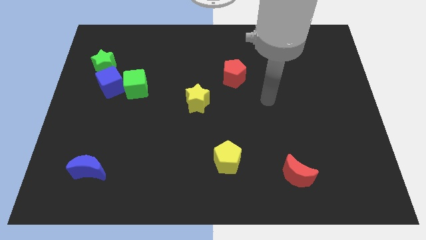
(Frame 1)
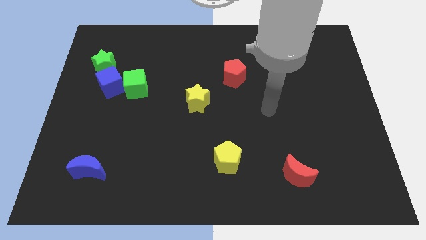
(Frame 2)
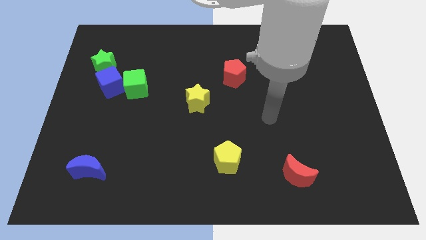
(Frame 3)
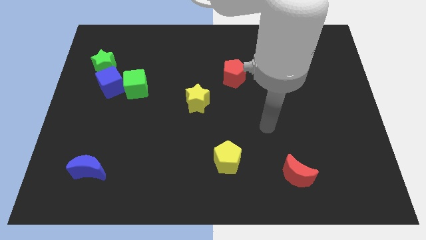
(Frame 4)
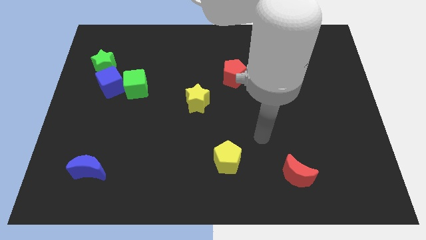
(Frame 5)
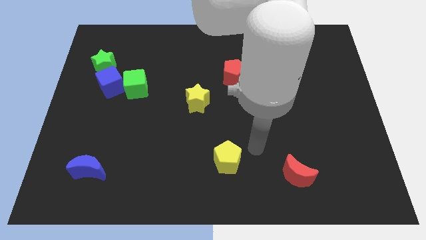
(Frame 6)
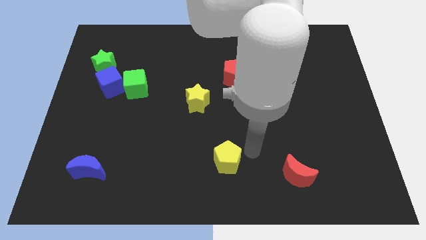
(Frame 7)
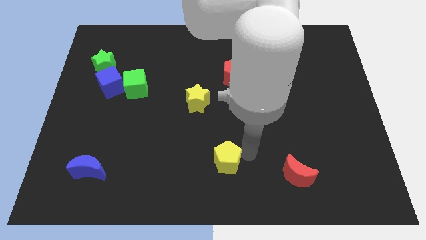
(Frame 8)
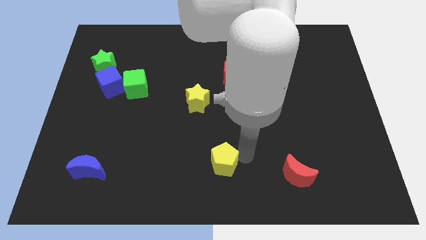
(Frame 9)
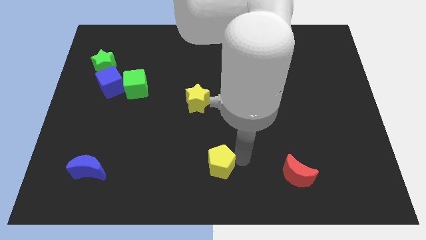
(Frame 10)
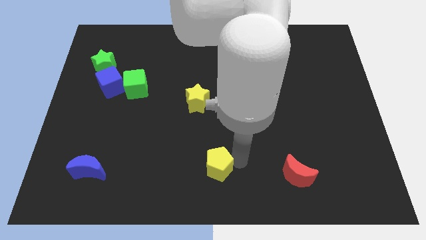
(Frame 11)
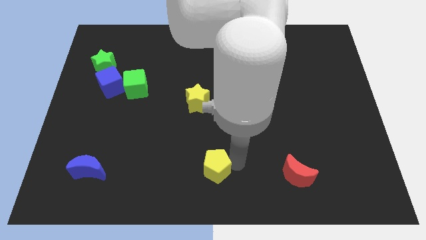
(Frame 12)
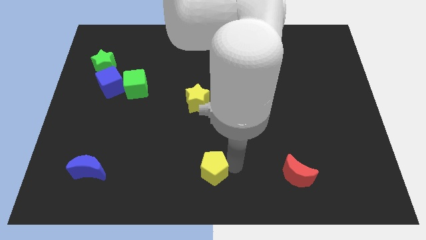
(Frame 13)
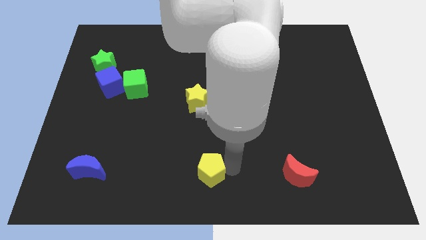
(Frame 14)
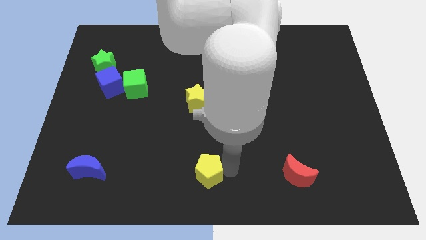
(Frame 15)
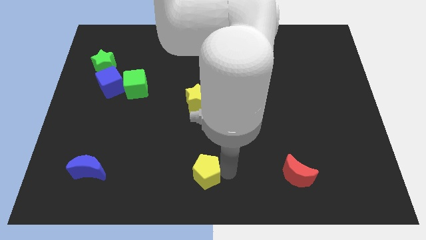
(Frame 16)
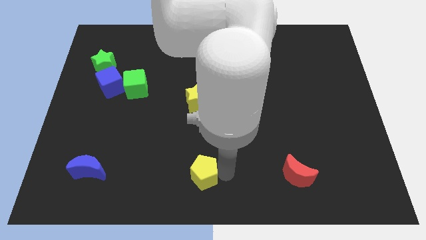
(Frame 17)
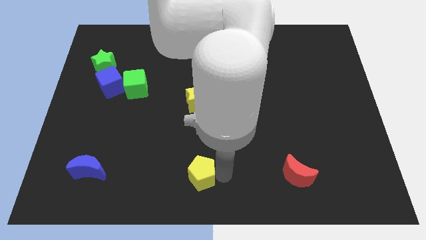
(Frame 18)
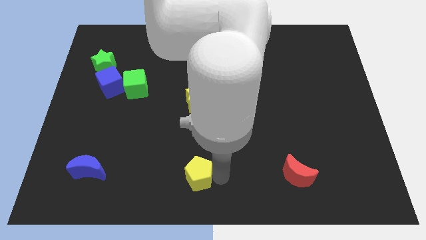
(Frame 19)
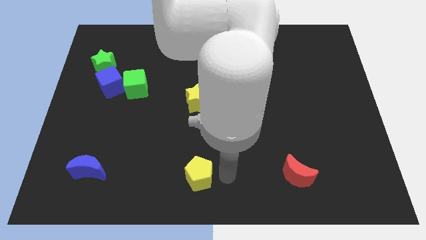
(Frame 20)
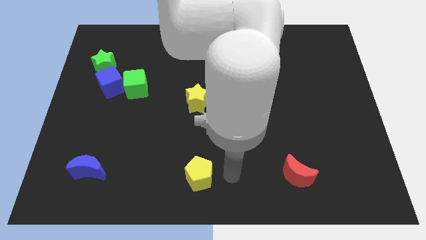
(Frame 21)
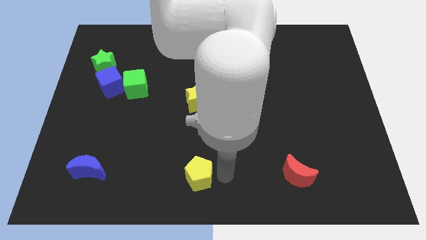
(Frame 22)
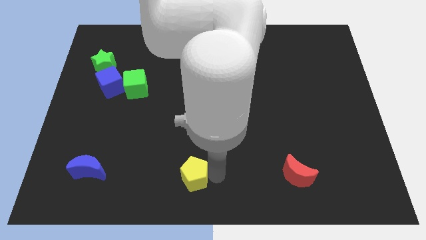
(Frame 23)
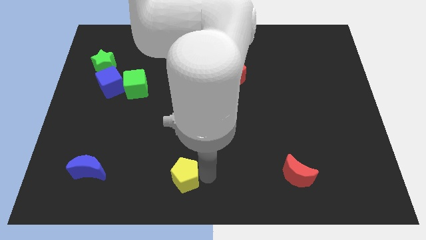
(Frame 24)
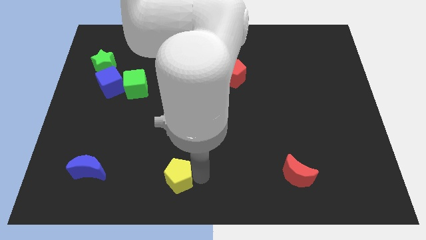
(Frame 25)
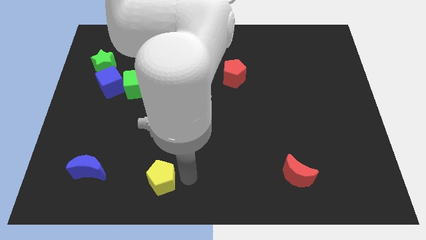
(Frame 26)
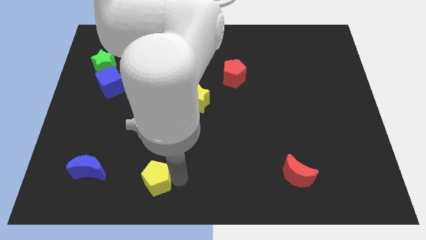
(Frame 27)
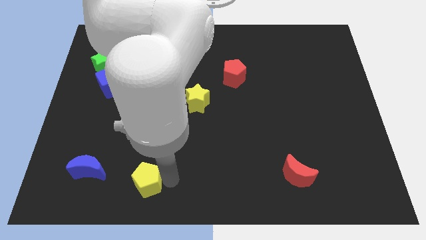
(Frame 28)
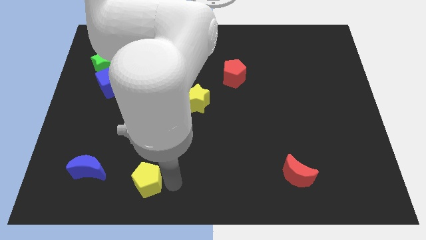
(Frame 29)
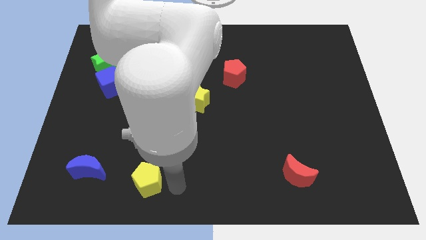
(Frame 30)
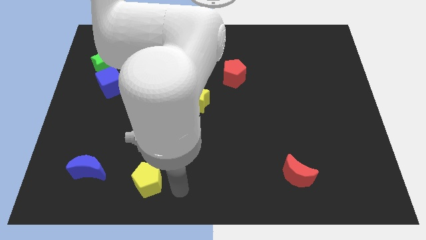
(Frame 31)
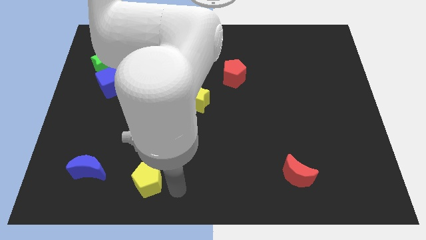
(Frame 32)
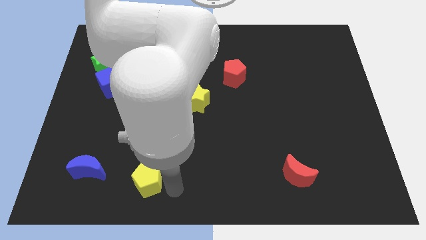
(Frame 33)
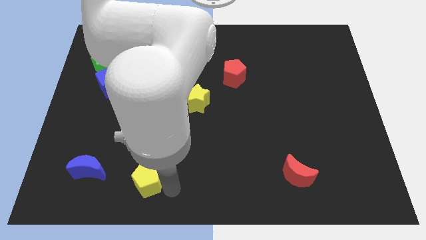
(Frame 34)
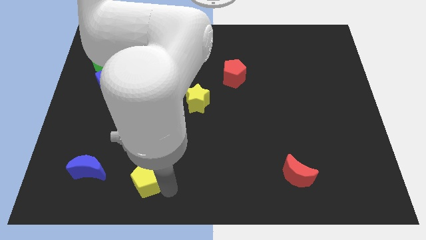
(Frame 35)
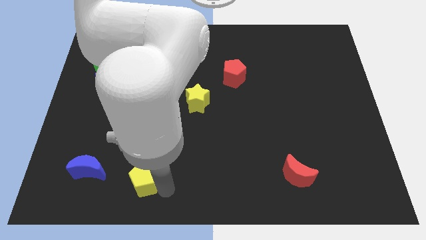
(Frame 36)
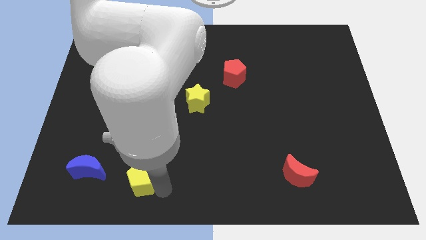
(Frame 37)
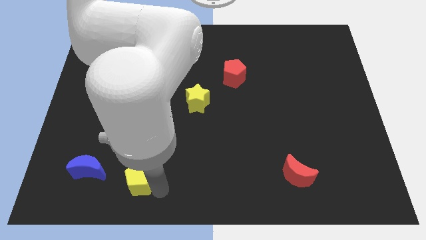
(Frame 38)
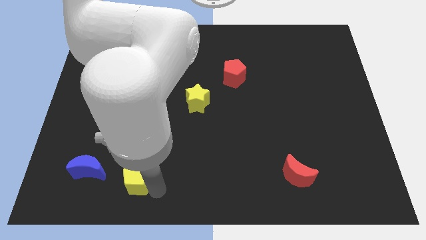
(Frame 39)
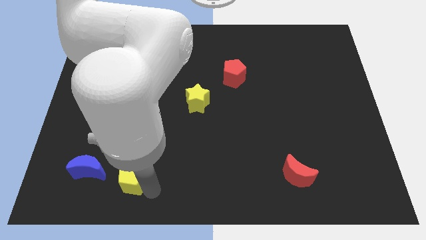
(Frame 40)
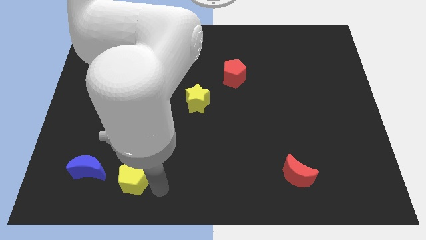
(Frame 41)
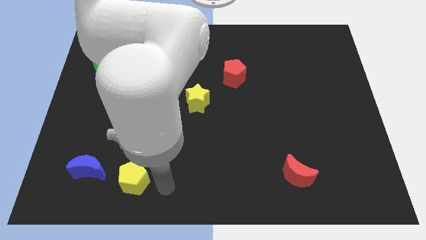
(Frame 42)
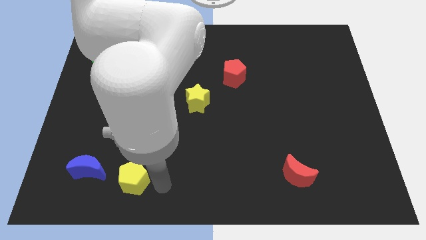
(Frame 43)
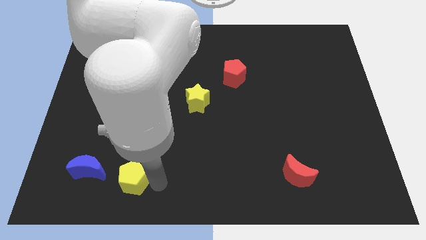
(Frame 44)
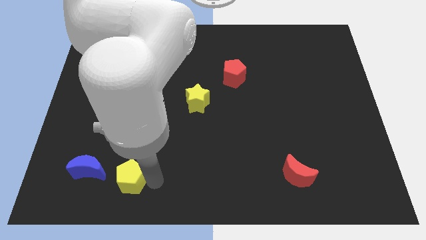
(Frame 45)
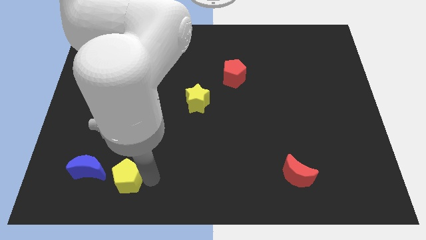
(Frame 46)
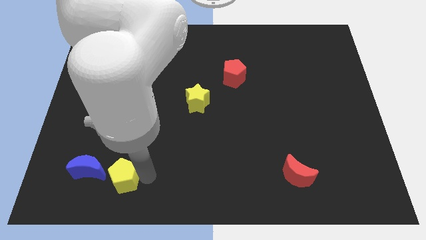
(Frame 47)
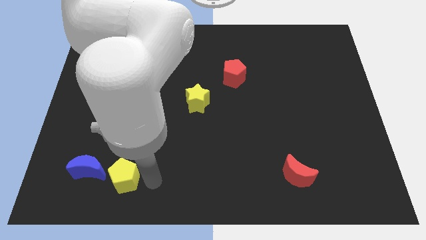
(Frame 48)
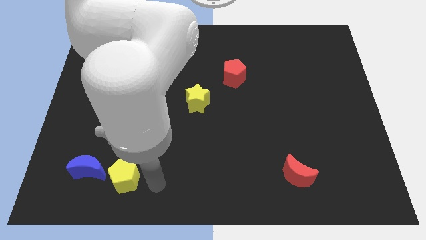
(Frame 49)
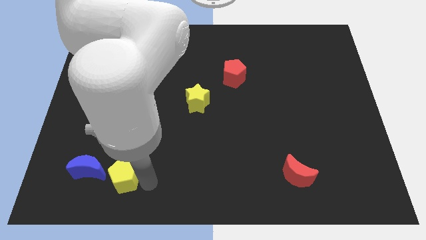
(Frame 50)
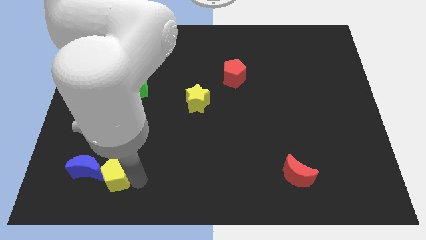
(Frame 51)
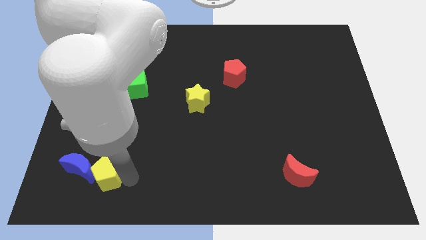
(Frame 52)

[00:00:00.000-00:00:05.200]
slide the yellow pentagon towards the blue moon

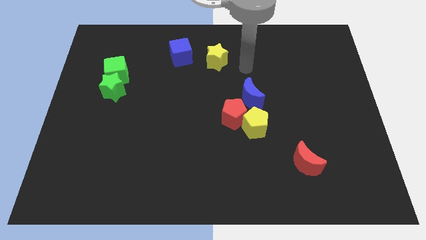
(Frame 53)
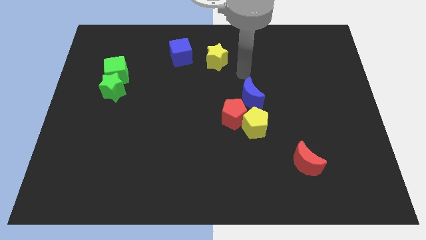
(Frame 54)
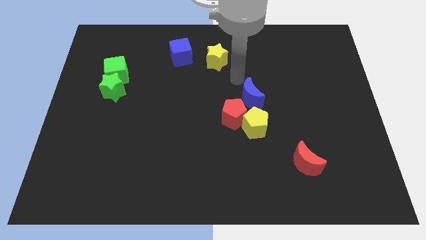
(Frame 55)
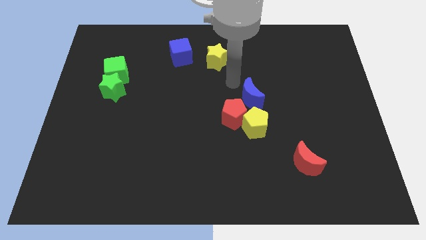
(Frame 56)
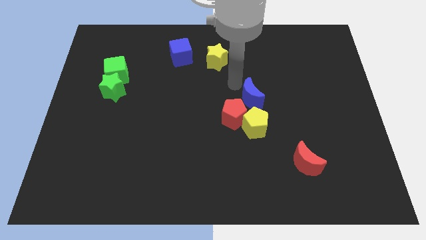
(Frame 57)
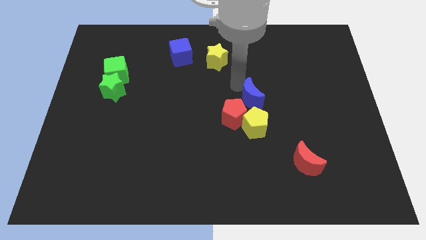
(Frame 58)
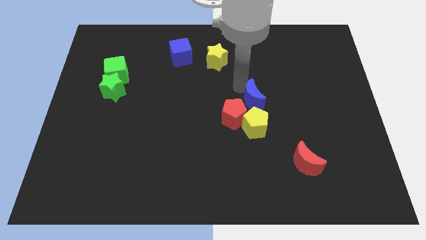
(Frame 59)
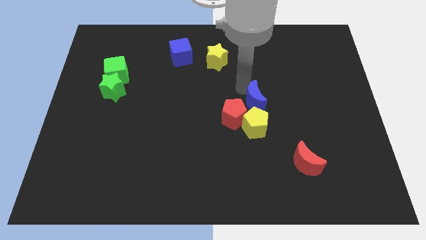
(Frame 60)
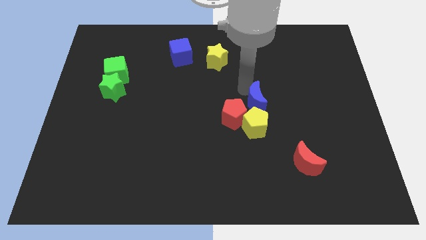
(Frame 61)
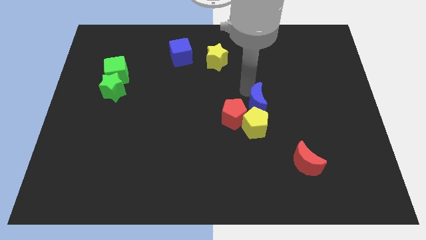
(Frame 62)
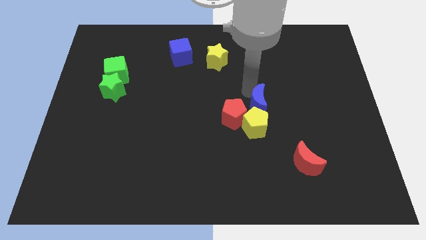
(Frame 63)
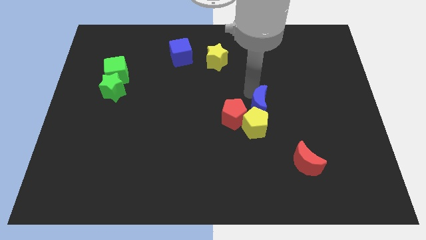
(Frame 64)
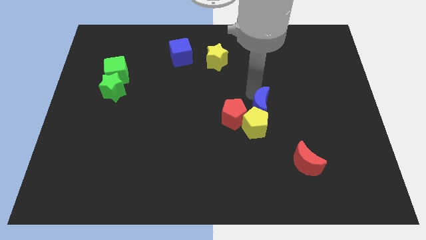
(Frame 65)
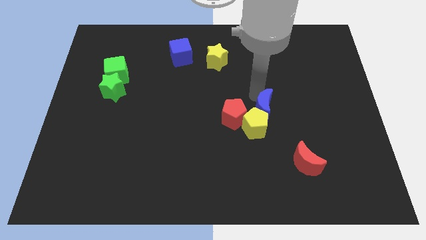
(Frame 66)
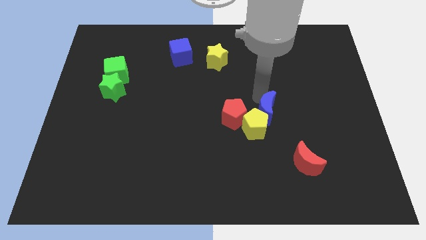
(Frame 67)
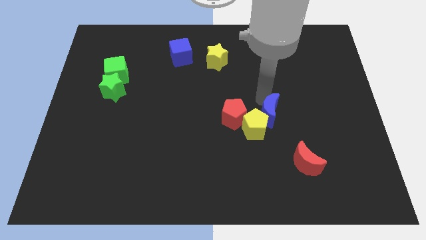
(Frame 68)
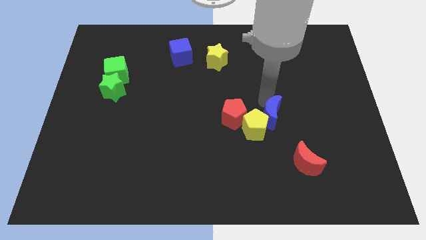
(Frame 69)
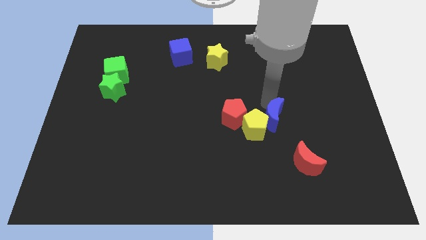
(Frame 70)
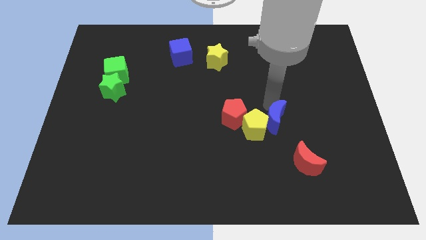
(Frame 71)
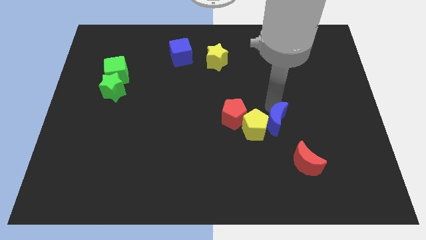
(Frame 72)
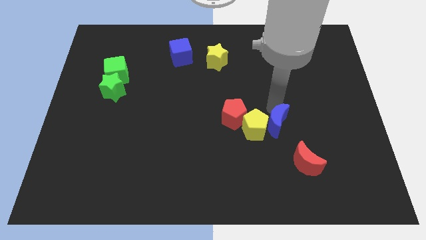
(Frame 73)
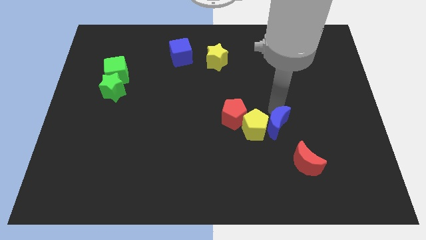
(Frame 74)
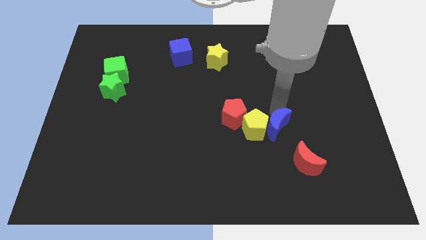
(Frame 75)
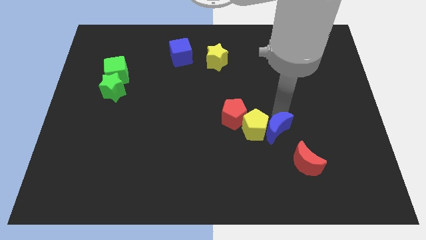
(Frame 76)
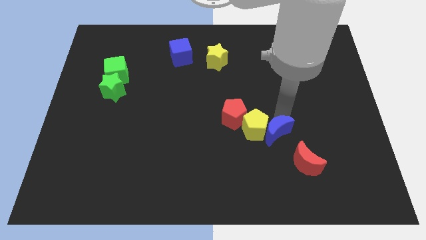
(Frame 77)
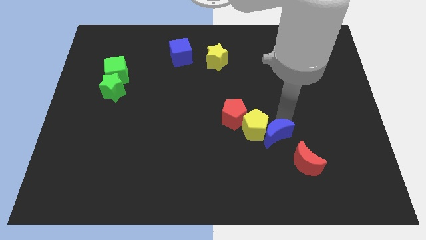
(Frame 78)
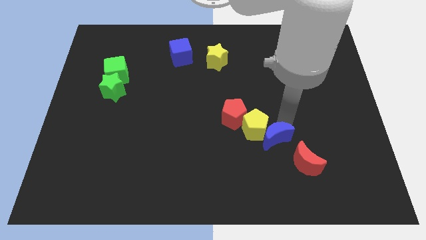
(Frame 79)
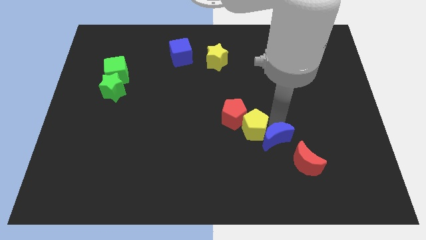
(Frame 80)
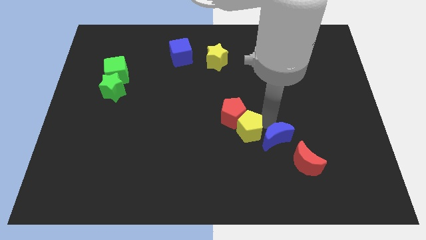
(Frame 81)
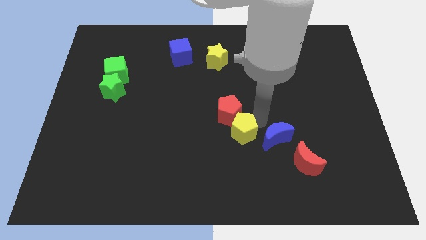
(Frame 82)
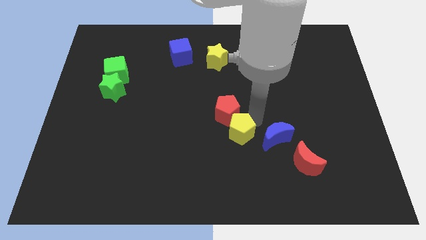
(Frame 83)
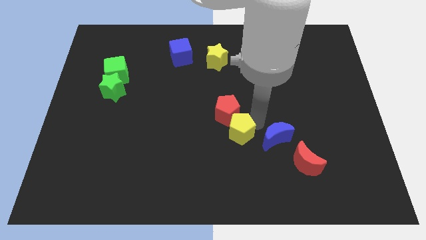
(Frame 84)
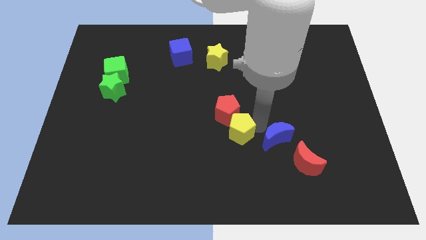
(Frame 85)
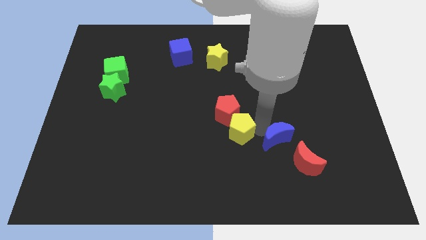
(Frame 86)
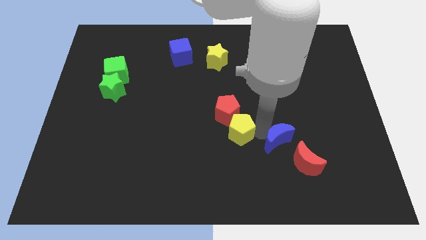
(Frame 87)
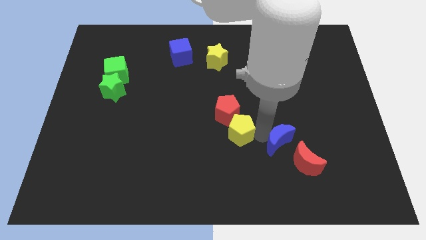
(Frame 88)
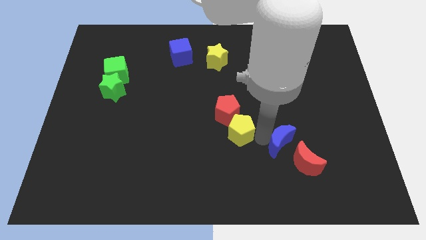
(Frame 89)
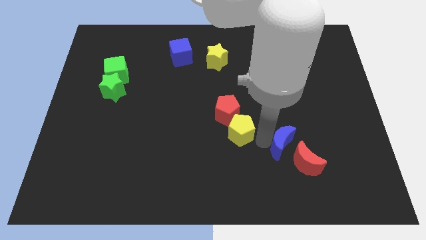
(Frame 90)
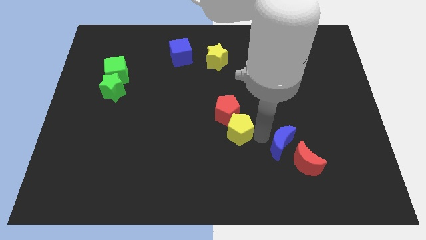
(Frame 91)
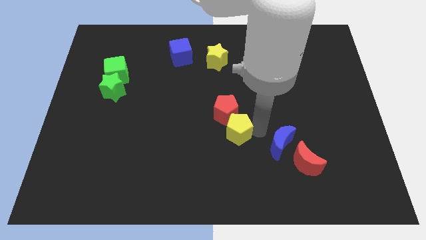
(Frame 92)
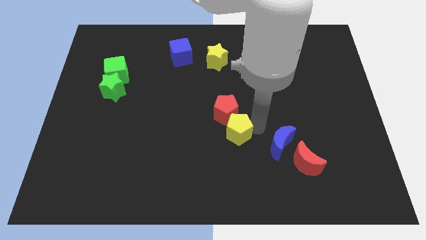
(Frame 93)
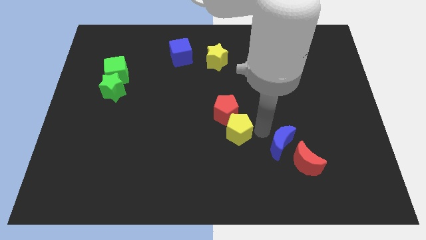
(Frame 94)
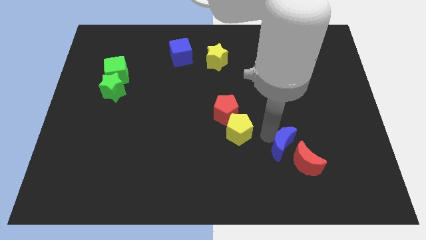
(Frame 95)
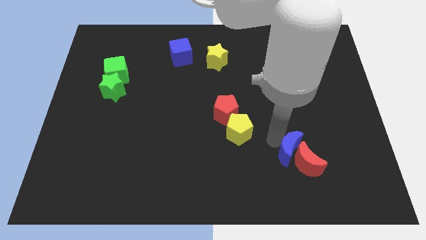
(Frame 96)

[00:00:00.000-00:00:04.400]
move the blue moon next to the red moon
